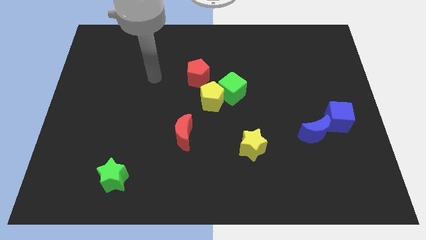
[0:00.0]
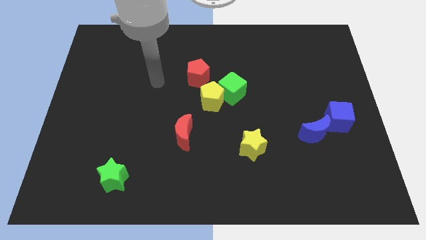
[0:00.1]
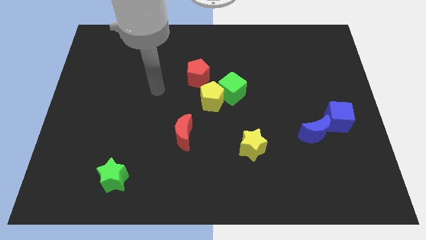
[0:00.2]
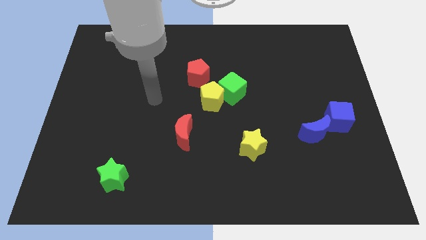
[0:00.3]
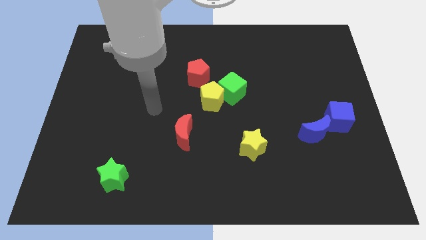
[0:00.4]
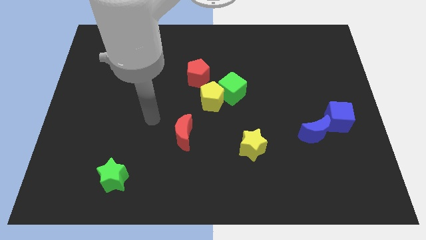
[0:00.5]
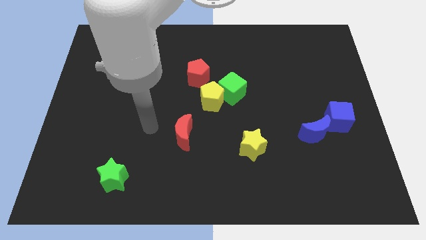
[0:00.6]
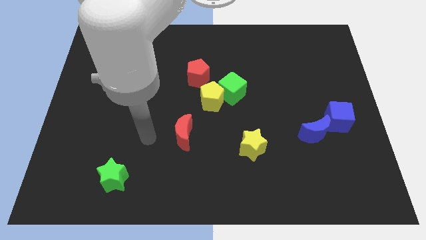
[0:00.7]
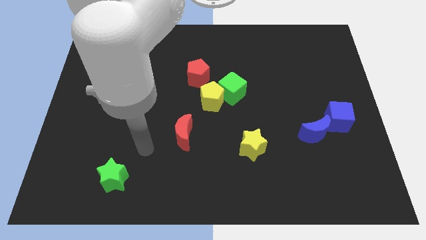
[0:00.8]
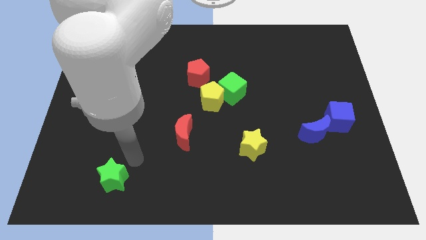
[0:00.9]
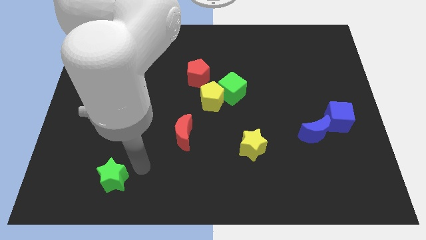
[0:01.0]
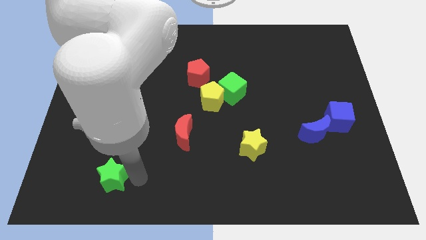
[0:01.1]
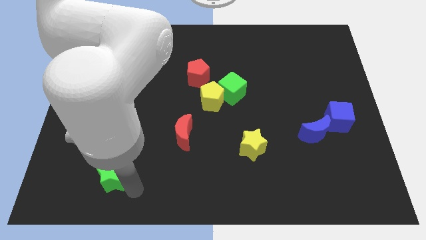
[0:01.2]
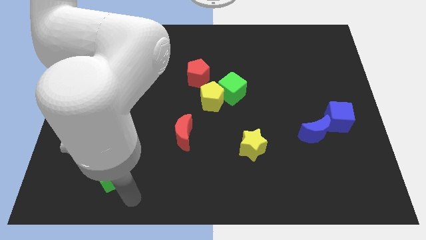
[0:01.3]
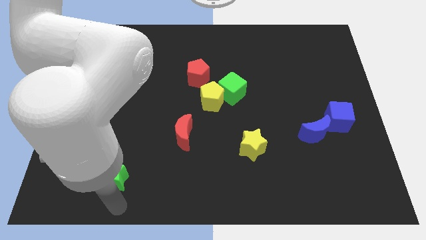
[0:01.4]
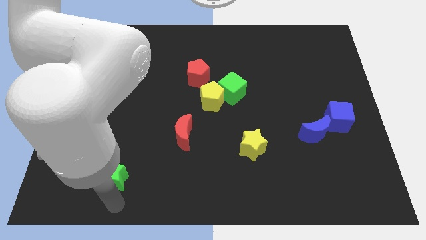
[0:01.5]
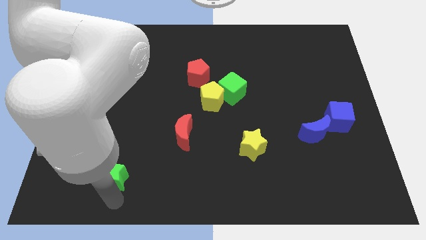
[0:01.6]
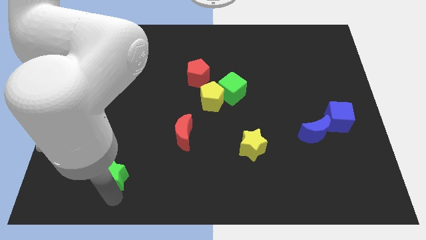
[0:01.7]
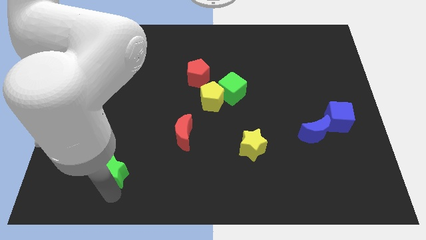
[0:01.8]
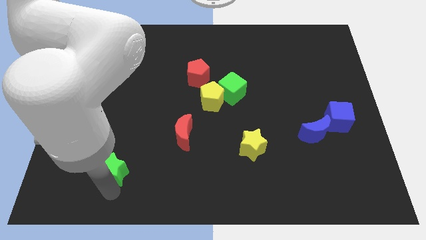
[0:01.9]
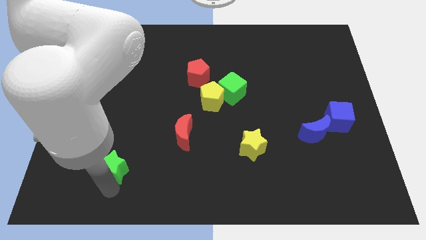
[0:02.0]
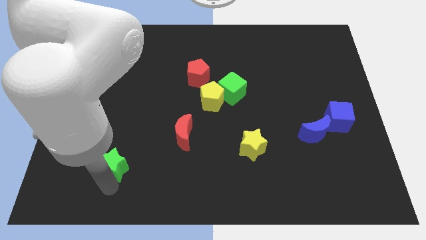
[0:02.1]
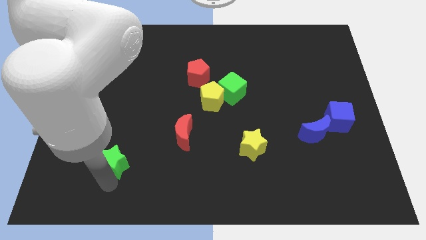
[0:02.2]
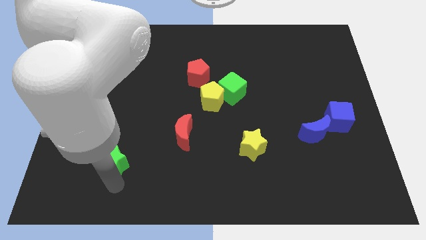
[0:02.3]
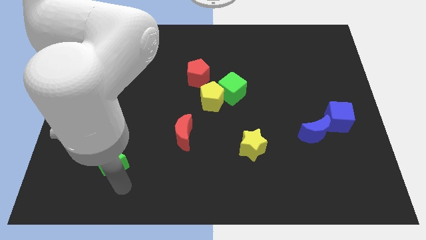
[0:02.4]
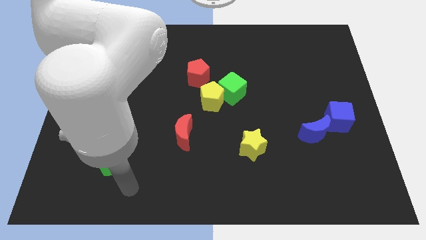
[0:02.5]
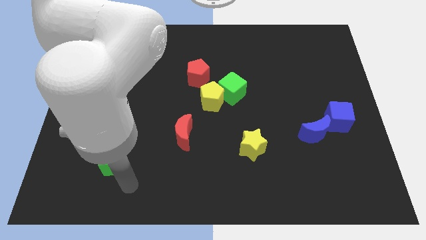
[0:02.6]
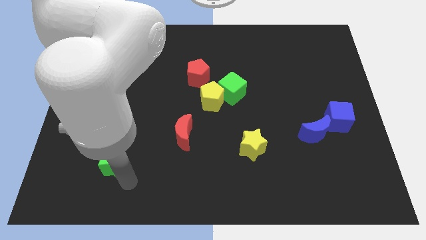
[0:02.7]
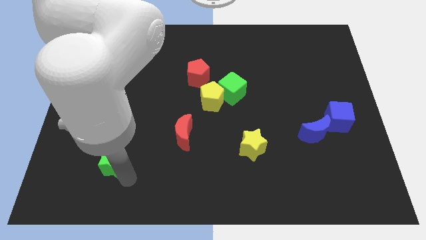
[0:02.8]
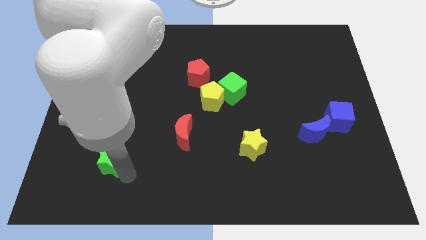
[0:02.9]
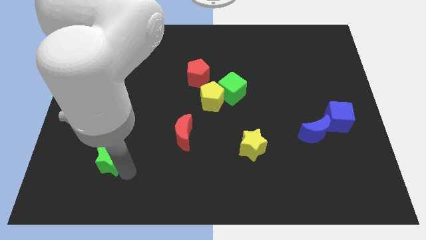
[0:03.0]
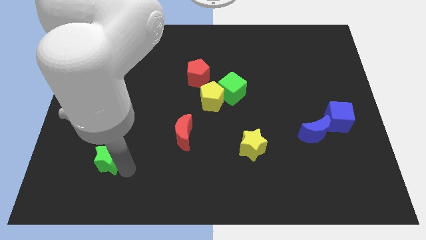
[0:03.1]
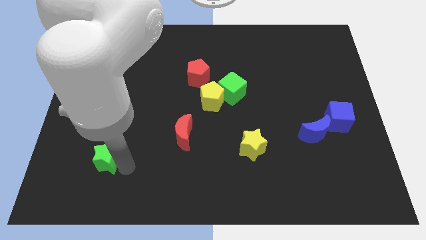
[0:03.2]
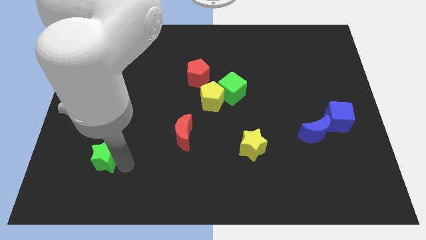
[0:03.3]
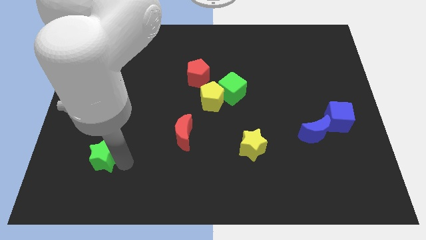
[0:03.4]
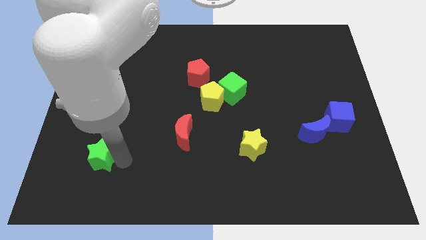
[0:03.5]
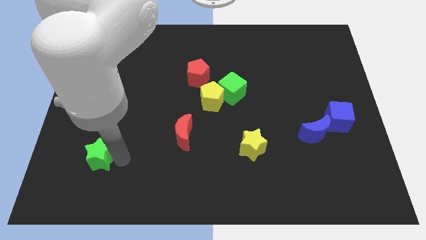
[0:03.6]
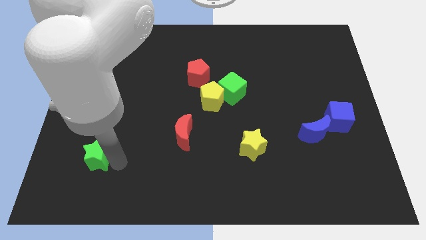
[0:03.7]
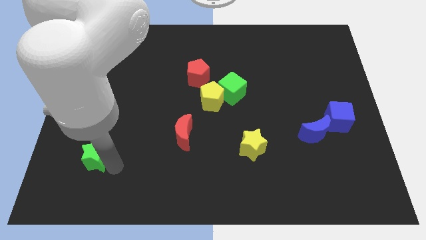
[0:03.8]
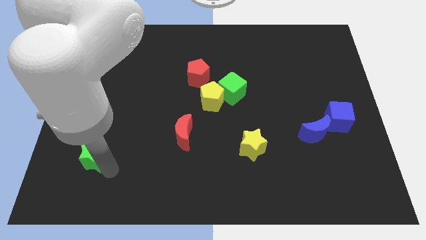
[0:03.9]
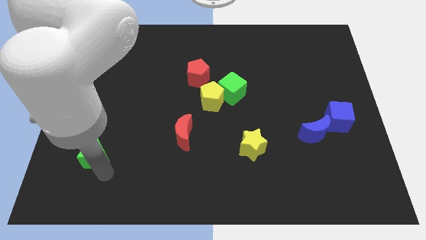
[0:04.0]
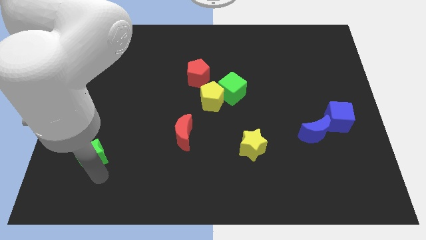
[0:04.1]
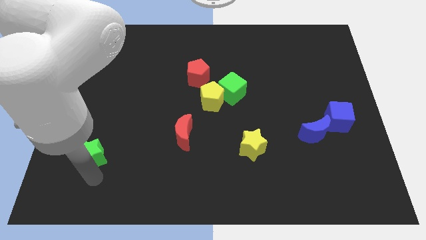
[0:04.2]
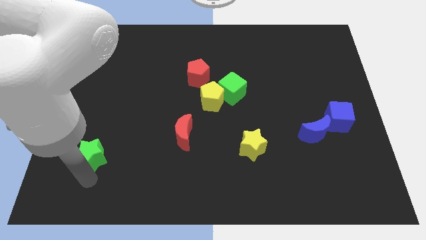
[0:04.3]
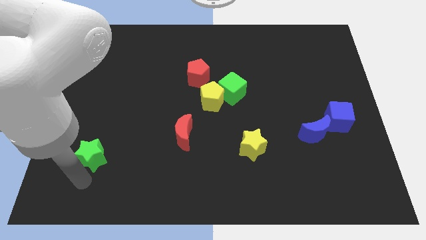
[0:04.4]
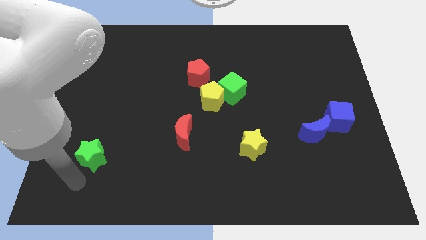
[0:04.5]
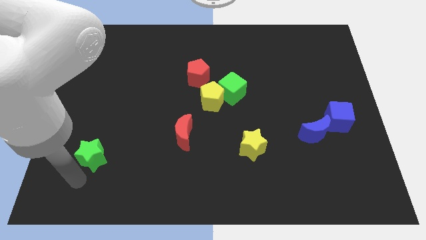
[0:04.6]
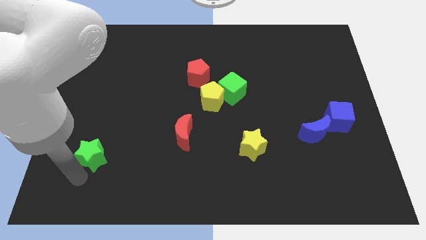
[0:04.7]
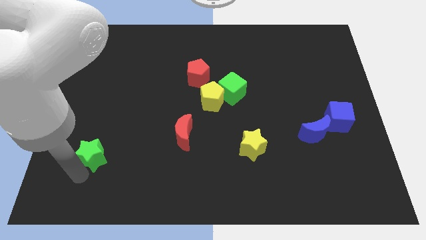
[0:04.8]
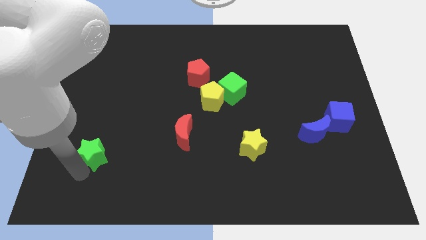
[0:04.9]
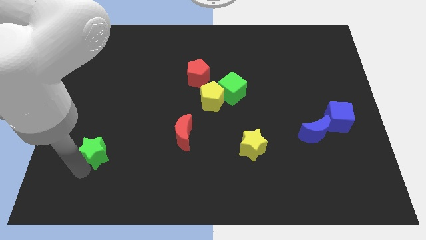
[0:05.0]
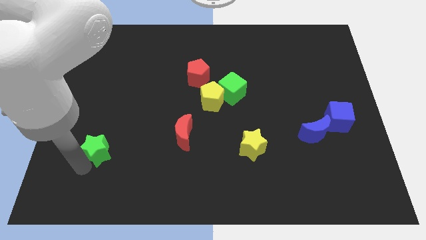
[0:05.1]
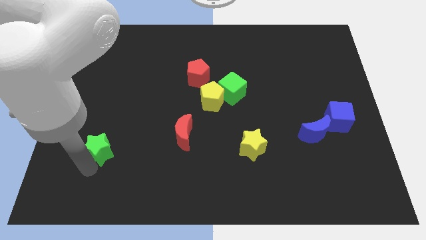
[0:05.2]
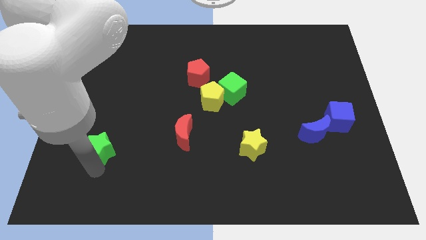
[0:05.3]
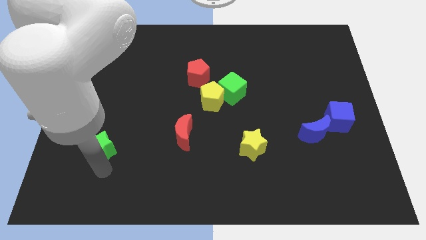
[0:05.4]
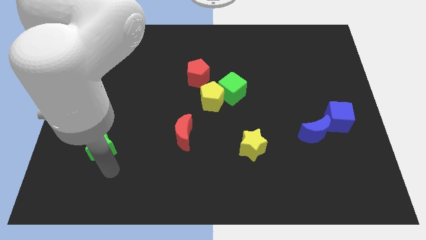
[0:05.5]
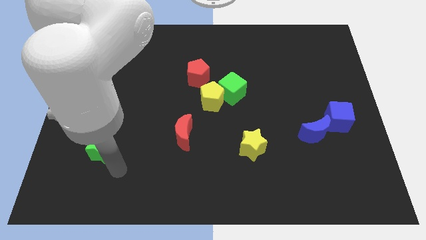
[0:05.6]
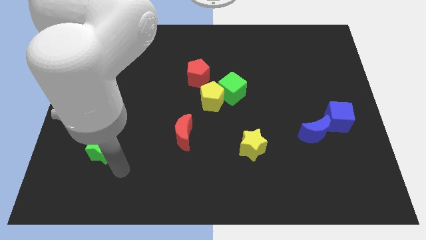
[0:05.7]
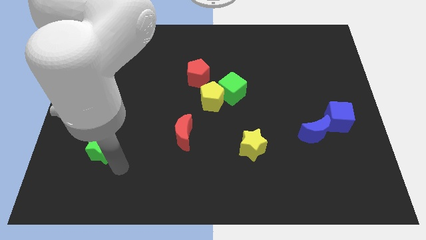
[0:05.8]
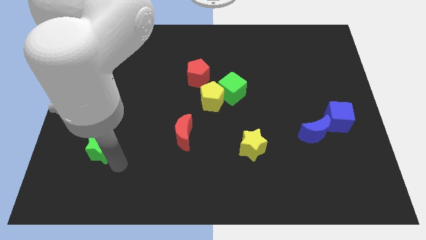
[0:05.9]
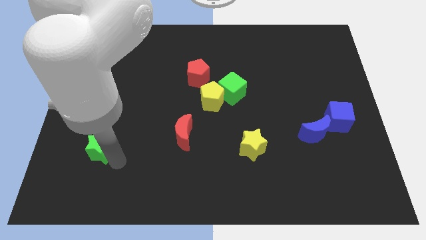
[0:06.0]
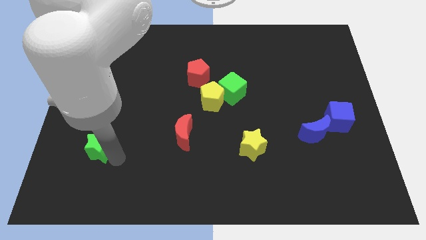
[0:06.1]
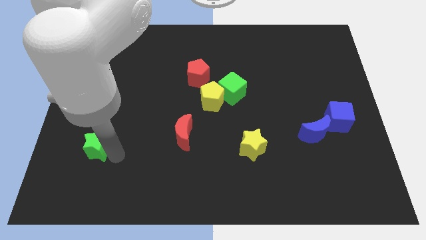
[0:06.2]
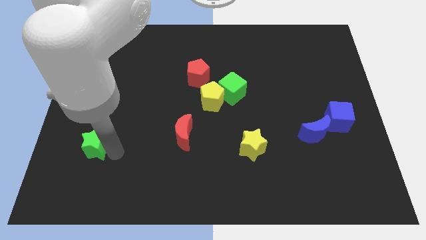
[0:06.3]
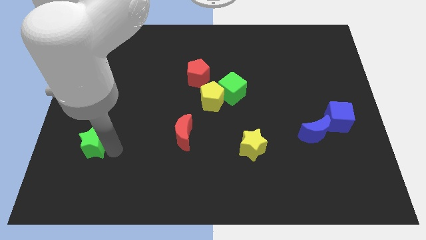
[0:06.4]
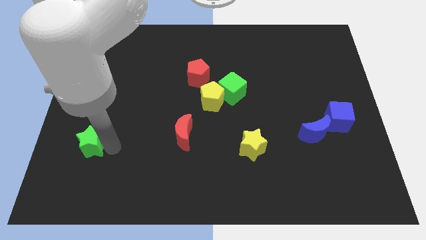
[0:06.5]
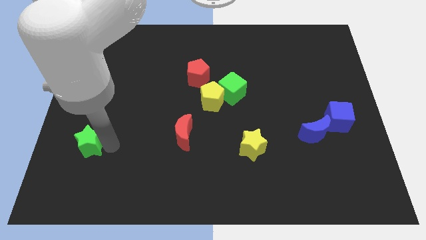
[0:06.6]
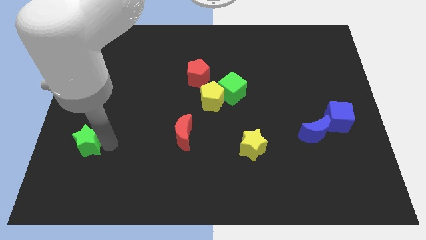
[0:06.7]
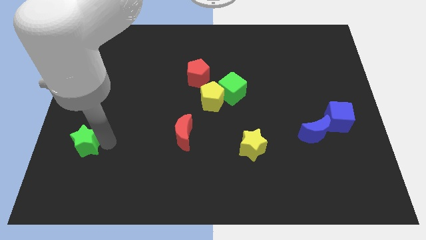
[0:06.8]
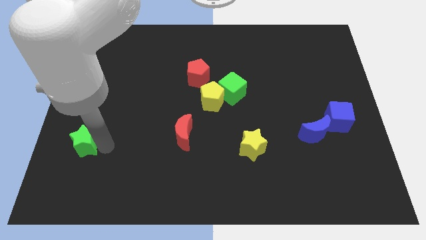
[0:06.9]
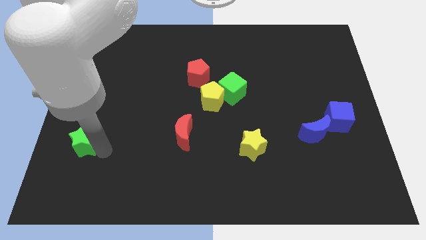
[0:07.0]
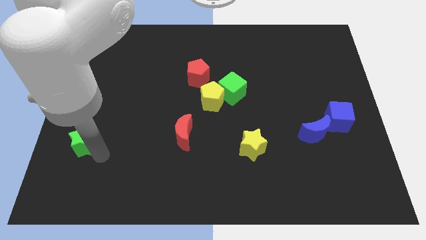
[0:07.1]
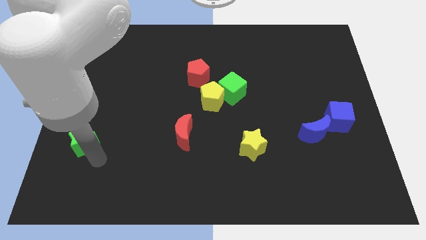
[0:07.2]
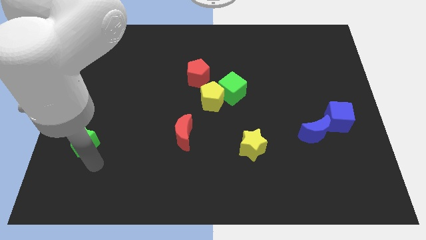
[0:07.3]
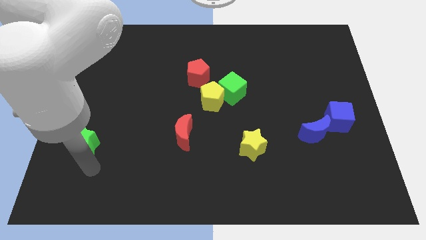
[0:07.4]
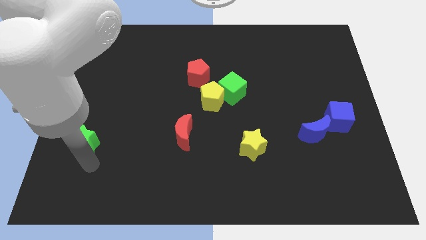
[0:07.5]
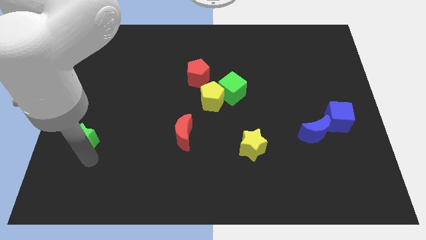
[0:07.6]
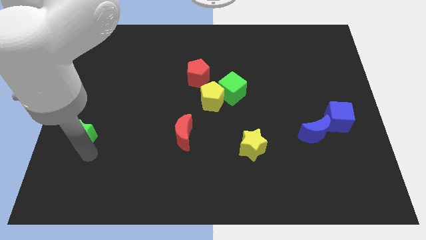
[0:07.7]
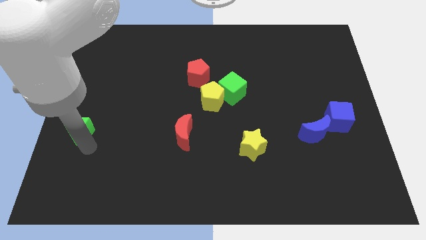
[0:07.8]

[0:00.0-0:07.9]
push the green star to the center left
